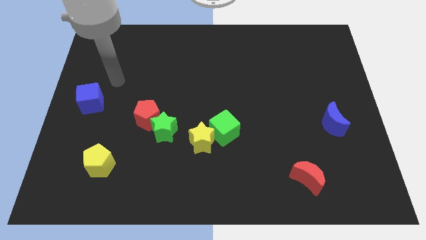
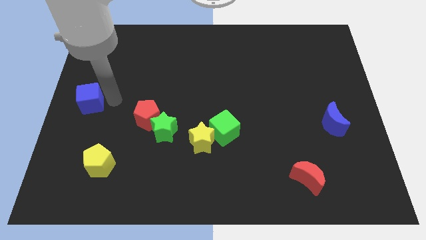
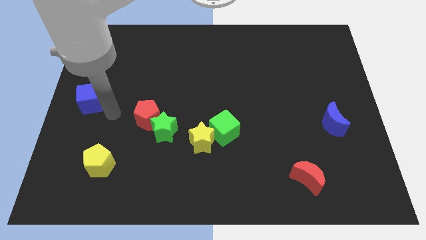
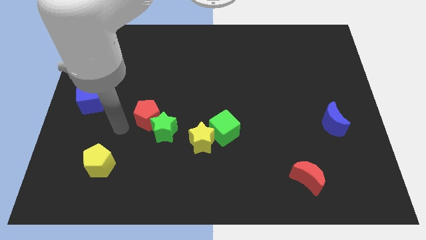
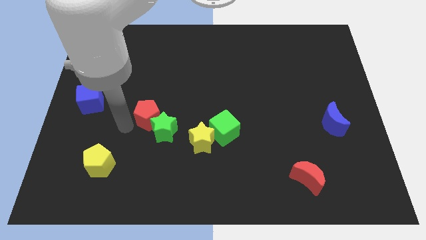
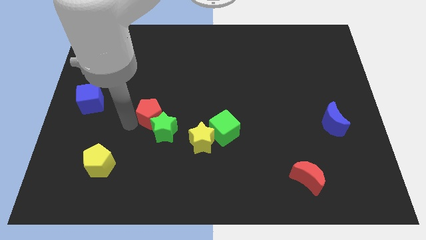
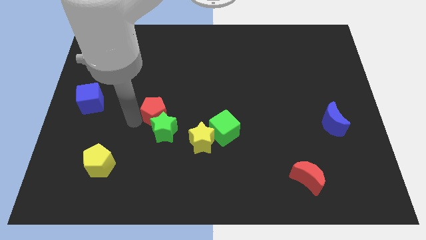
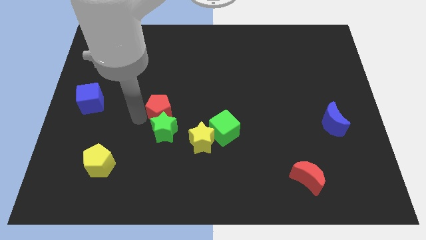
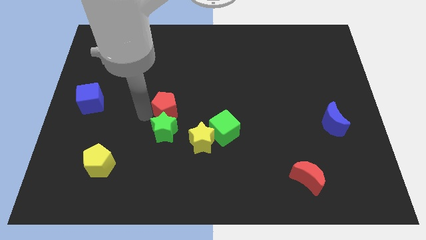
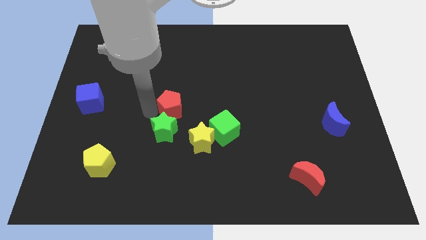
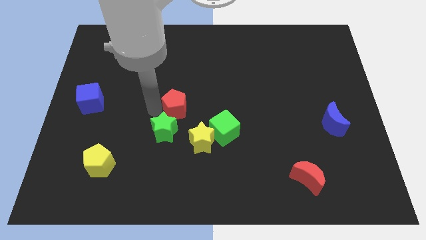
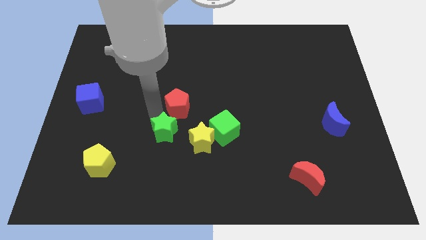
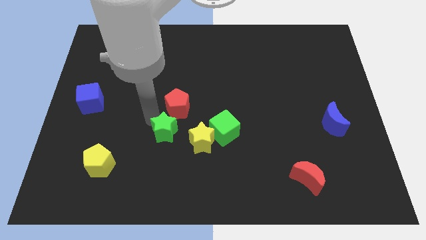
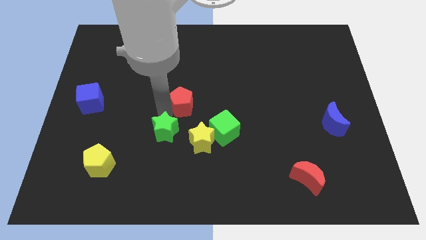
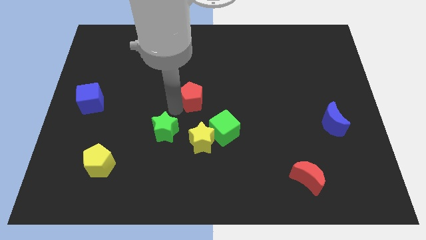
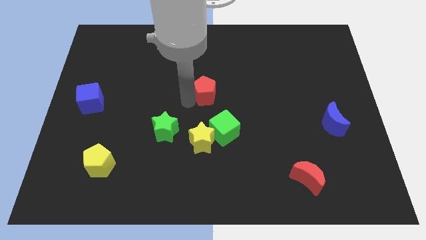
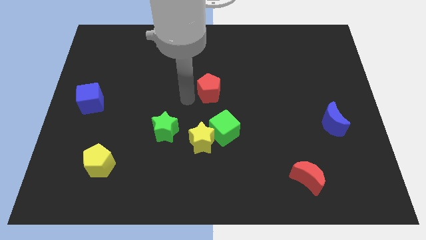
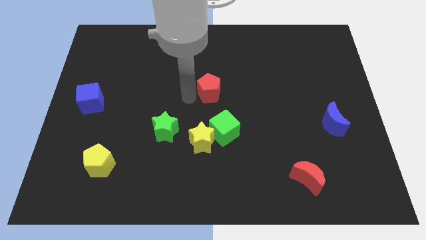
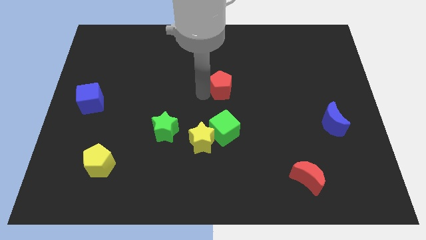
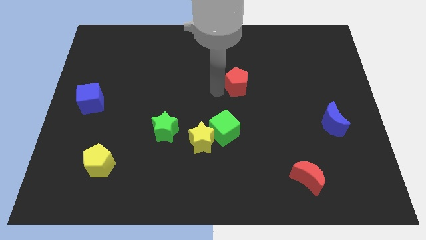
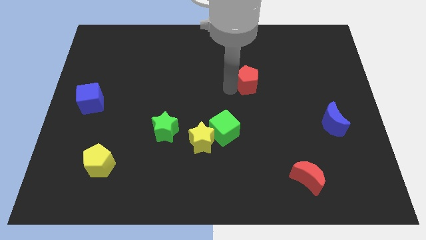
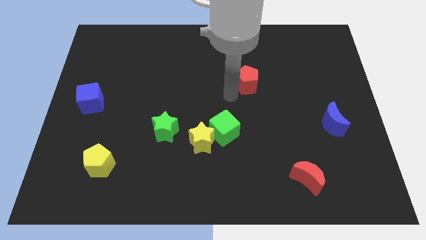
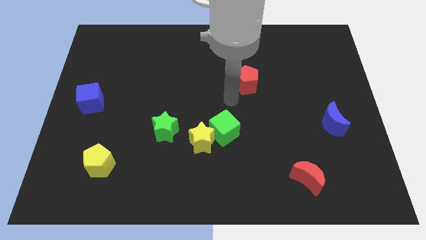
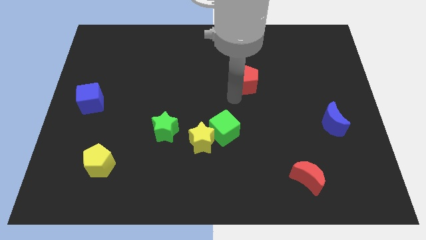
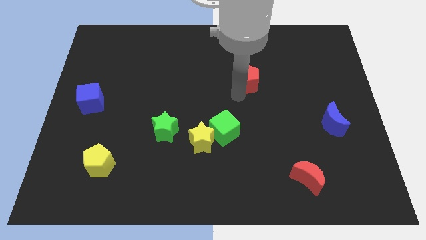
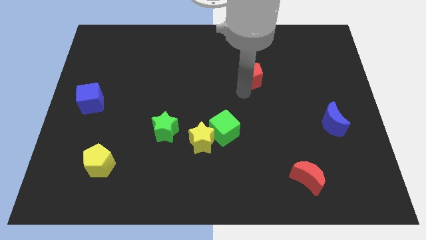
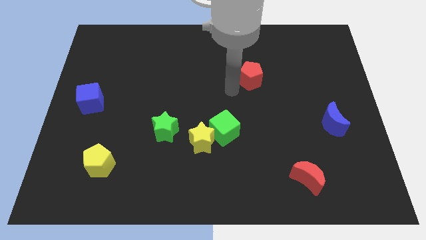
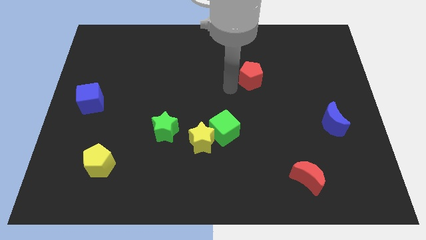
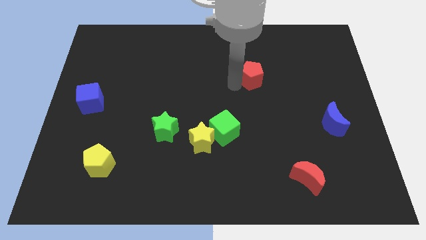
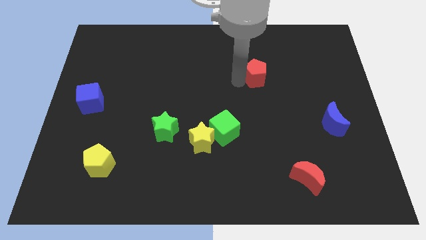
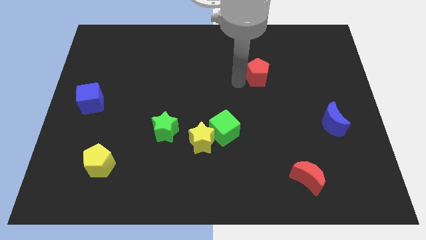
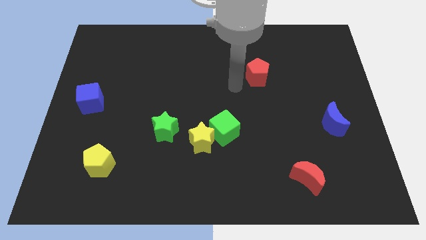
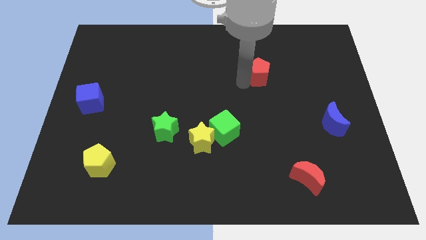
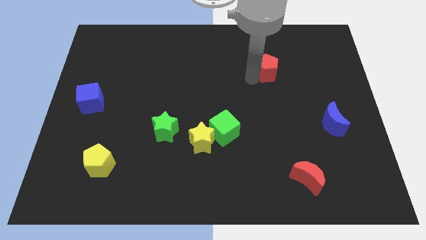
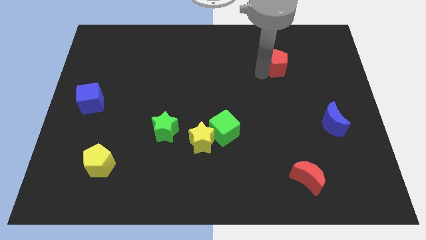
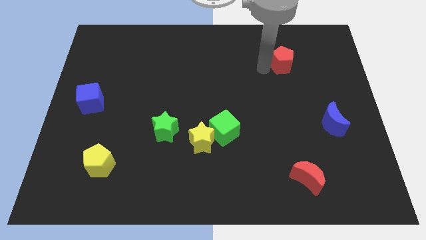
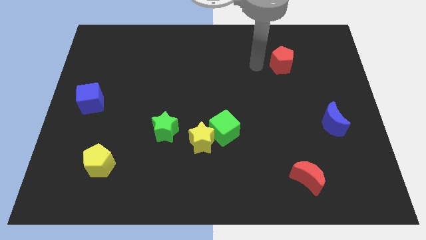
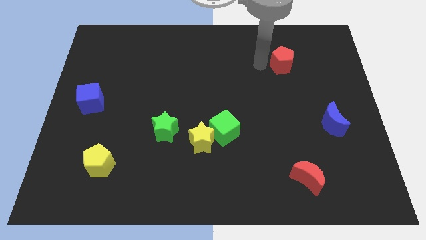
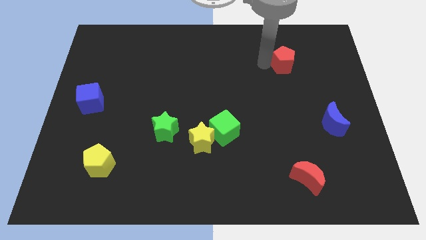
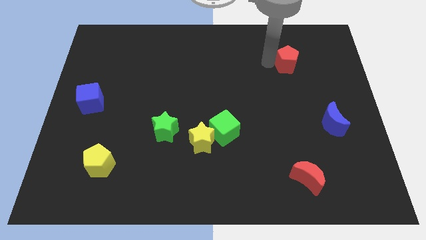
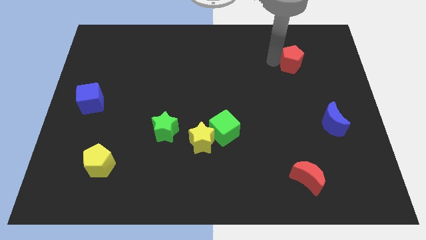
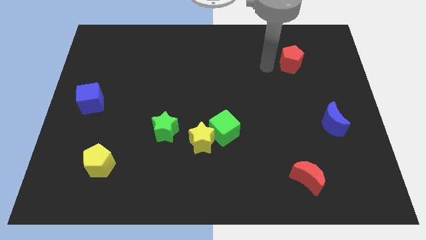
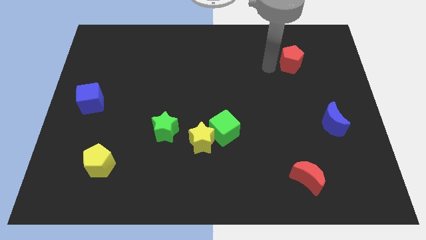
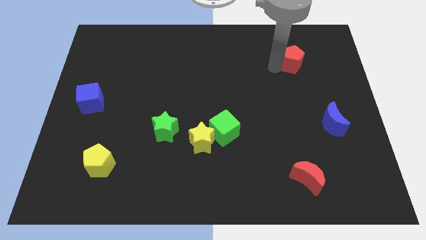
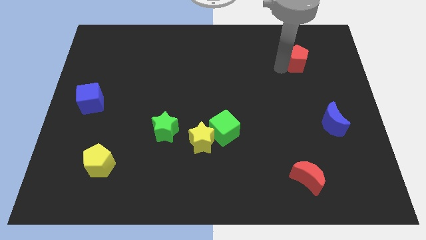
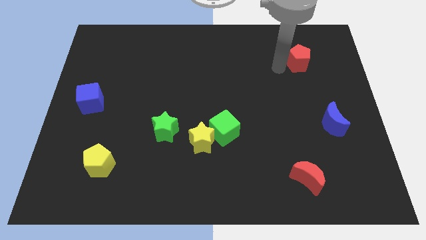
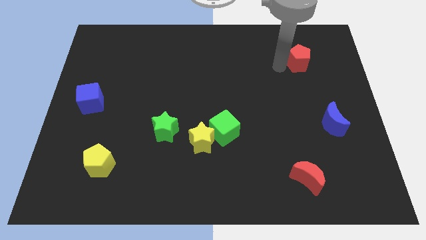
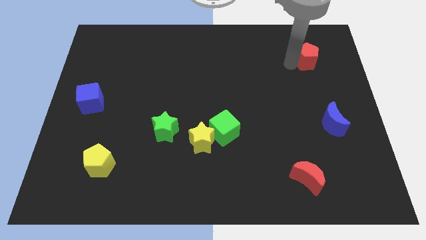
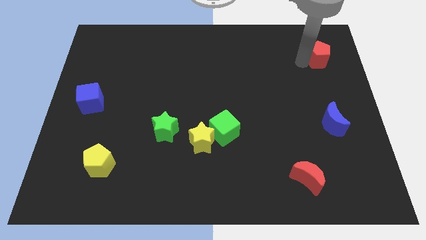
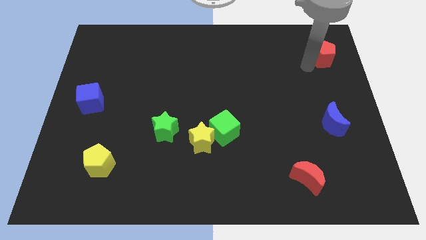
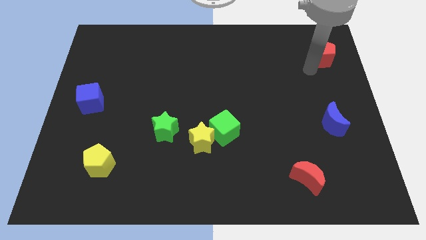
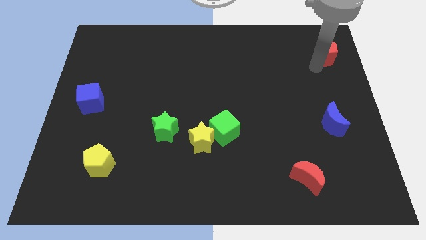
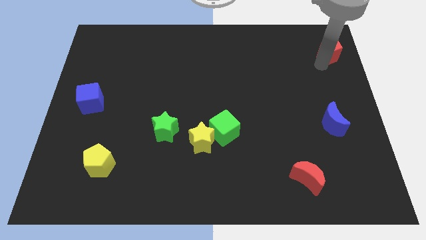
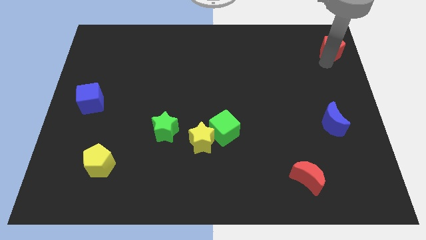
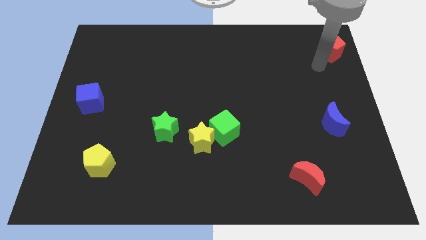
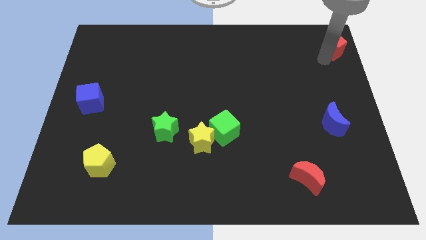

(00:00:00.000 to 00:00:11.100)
slide the red pentagon to the top right of the board

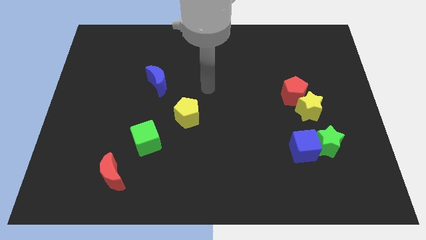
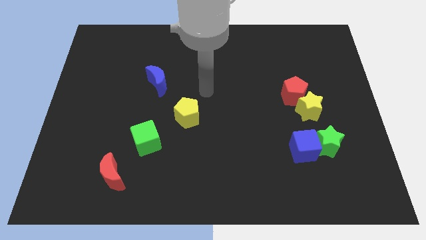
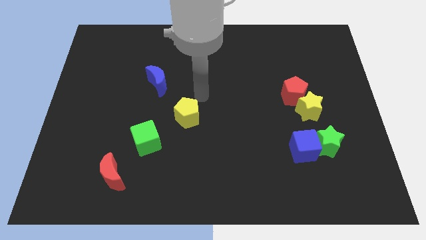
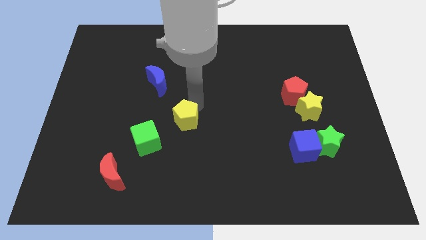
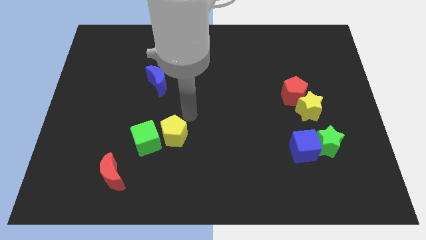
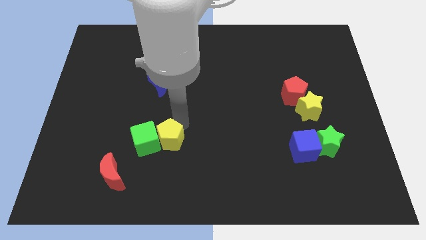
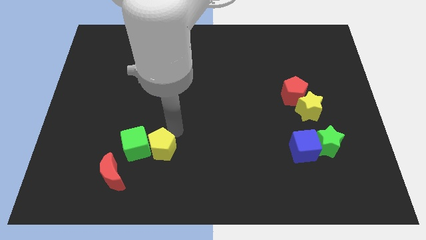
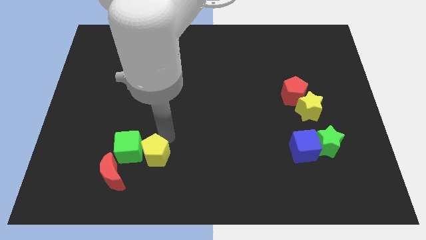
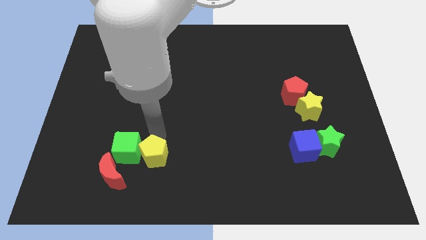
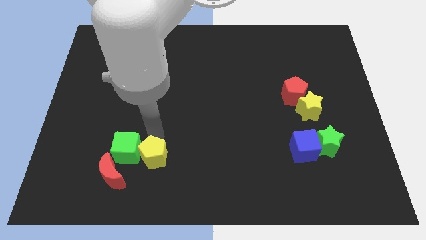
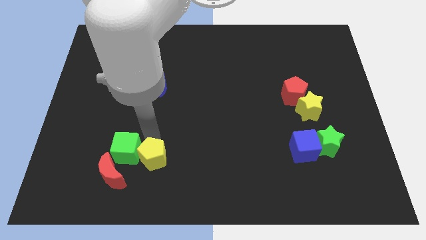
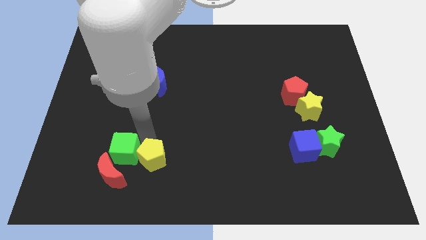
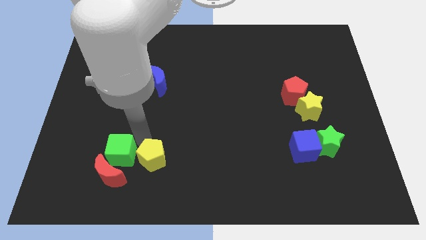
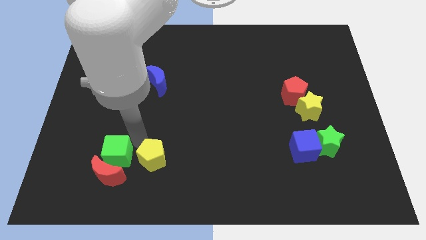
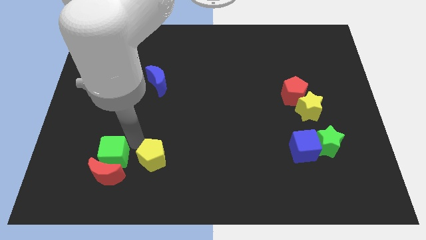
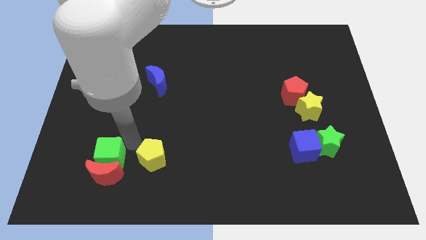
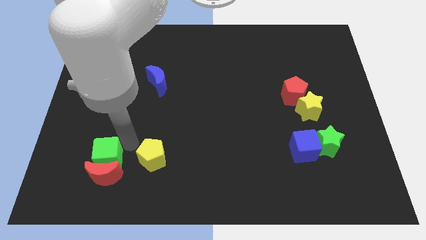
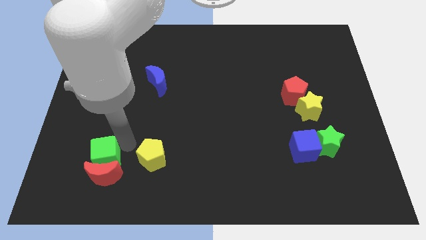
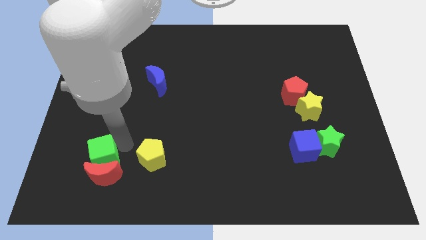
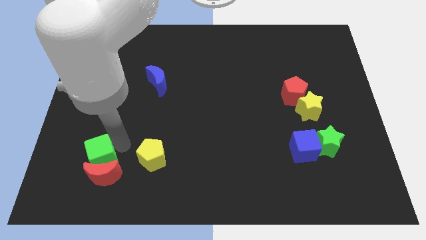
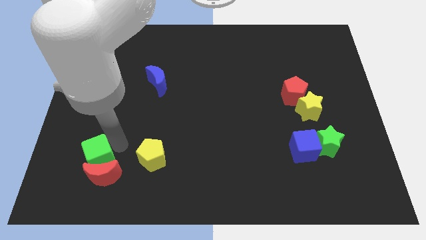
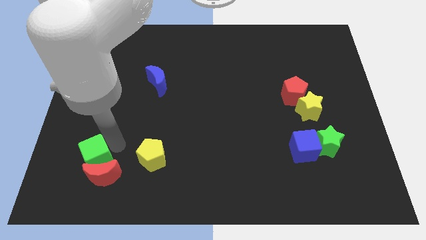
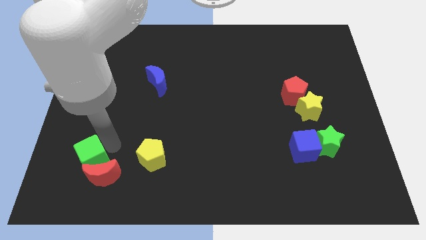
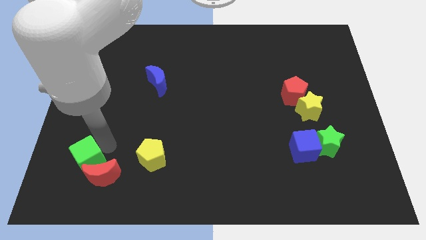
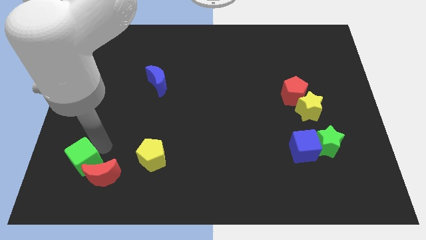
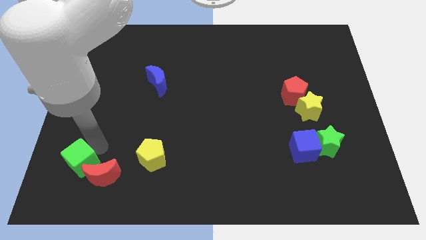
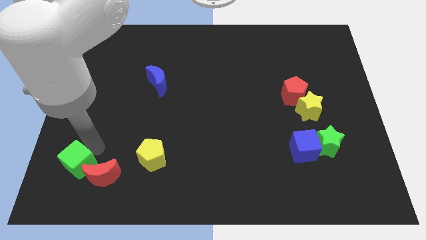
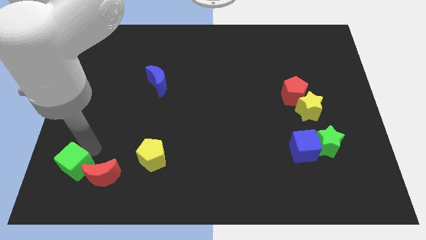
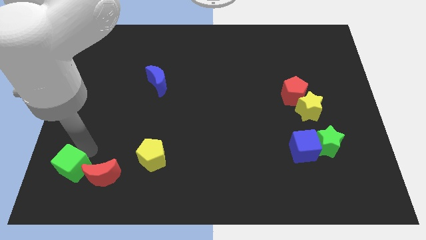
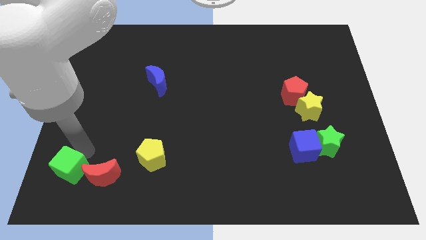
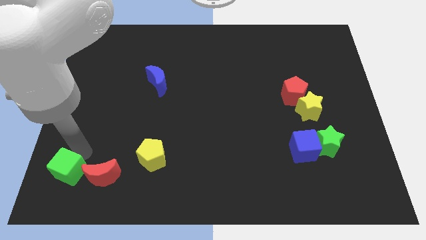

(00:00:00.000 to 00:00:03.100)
slide the green cube to the bottom left corner
